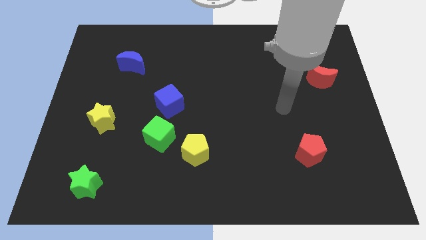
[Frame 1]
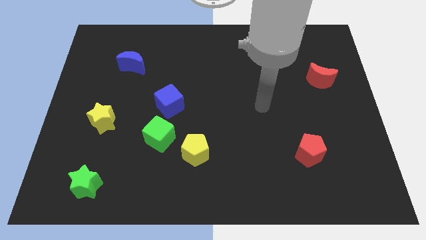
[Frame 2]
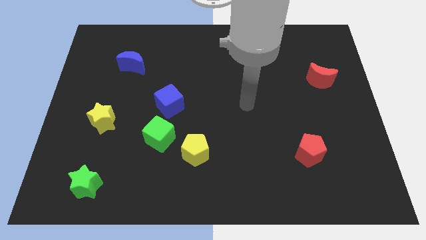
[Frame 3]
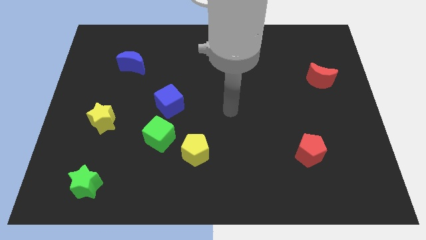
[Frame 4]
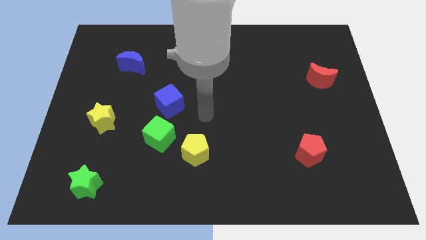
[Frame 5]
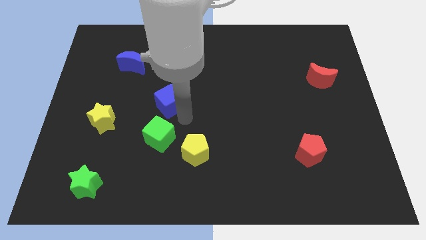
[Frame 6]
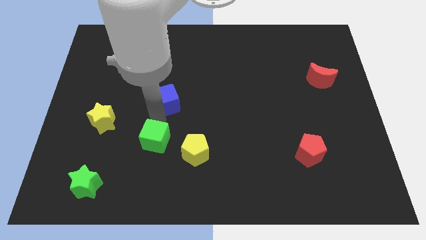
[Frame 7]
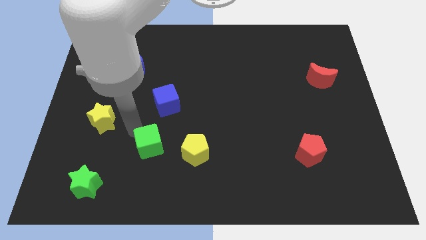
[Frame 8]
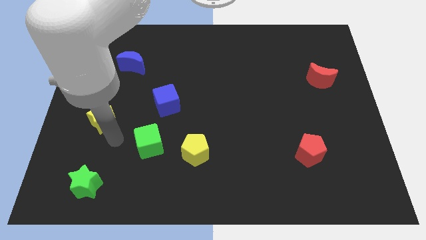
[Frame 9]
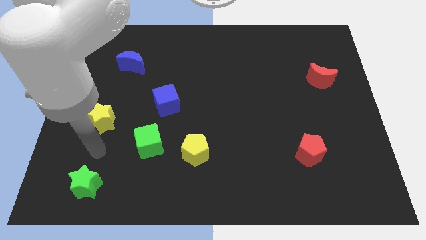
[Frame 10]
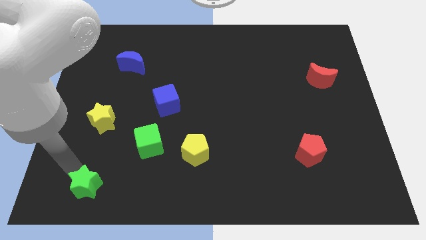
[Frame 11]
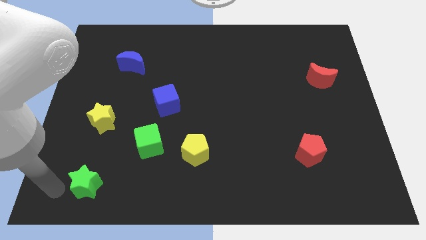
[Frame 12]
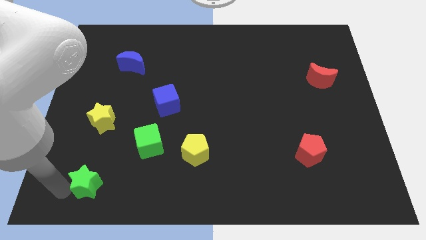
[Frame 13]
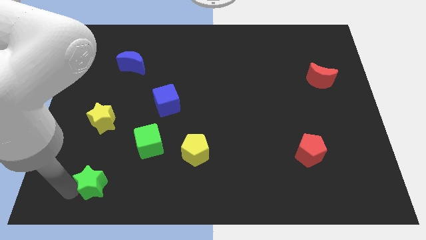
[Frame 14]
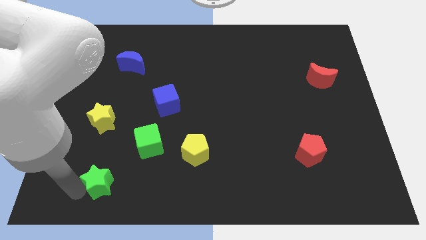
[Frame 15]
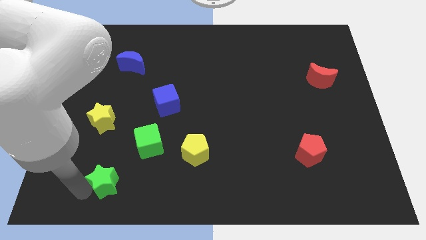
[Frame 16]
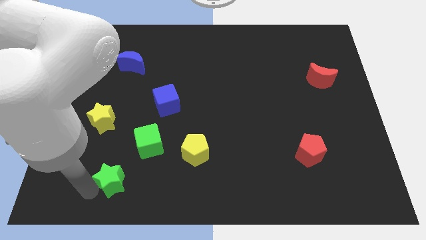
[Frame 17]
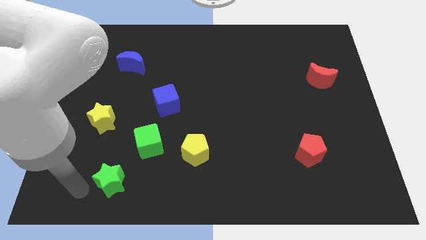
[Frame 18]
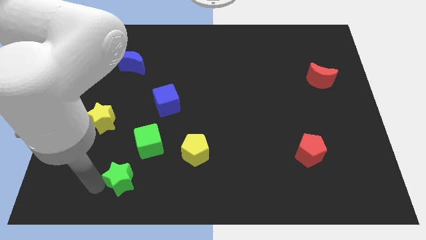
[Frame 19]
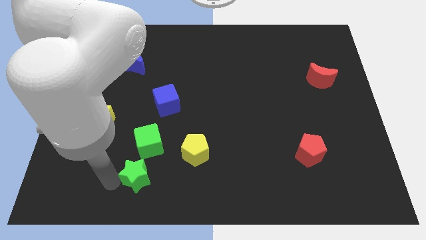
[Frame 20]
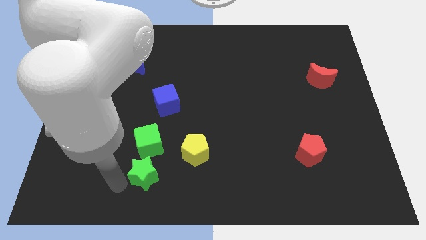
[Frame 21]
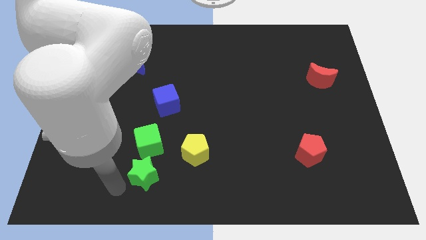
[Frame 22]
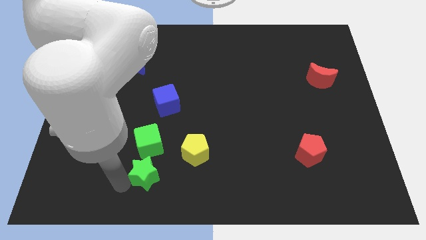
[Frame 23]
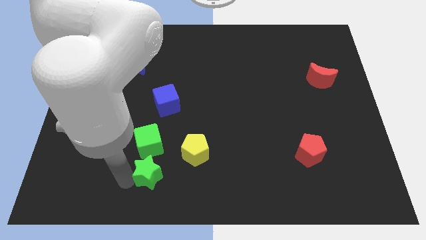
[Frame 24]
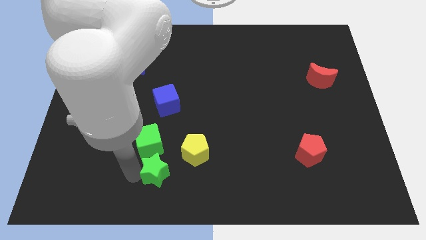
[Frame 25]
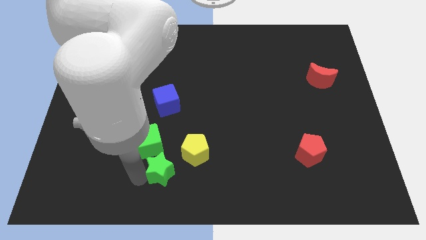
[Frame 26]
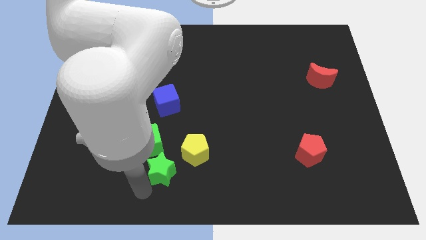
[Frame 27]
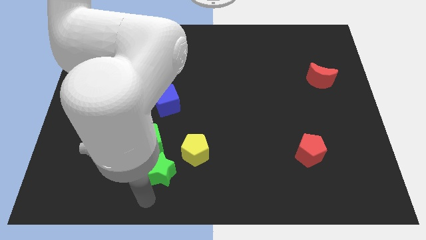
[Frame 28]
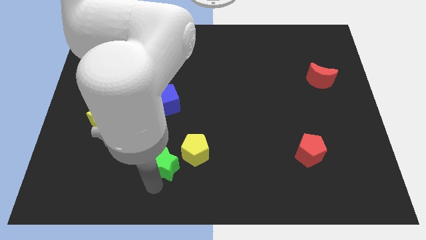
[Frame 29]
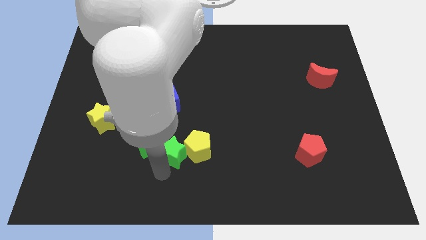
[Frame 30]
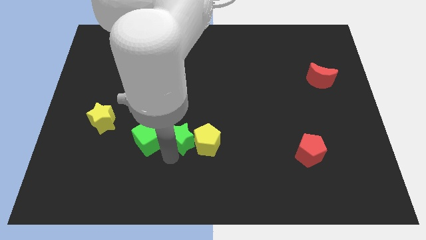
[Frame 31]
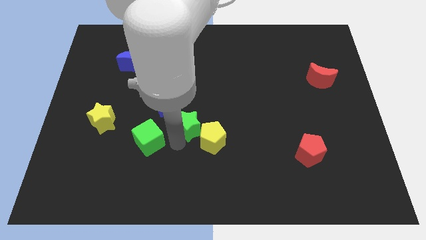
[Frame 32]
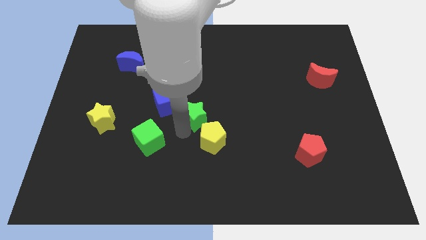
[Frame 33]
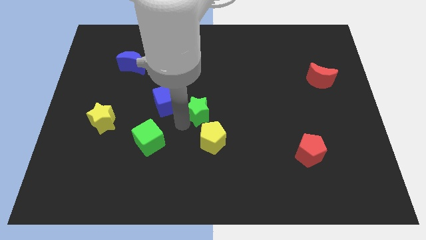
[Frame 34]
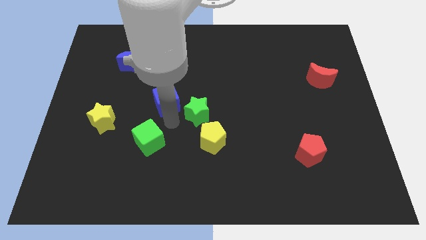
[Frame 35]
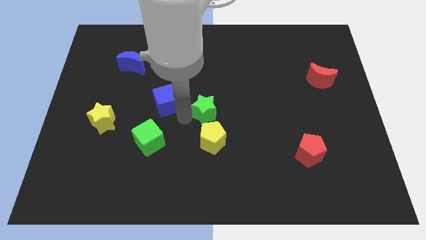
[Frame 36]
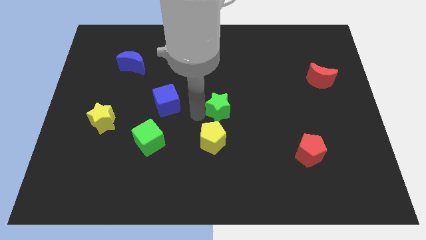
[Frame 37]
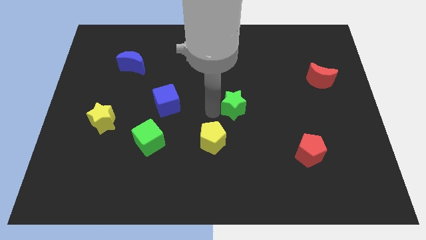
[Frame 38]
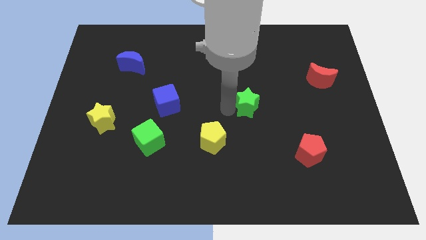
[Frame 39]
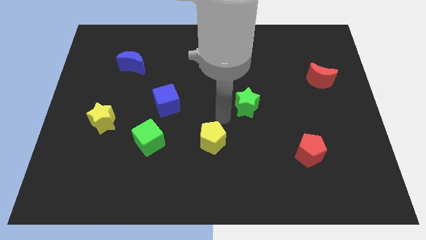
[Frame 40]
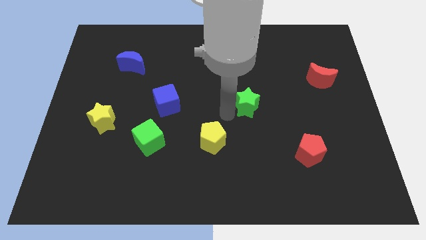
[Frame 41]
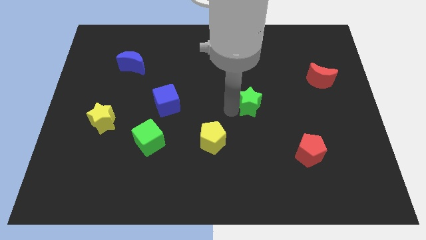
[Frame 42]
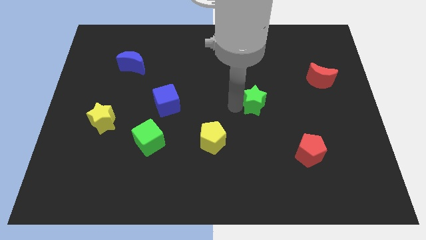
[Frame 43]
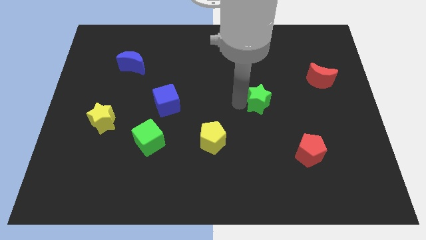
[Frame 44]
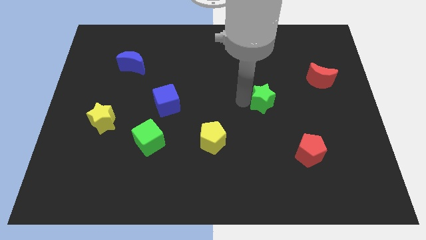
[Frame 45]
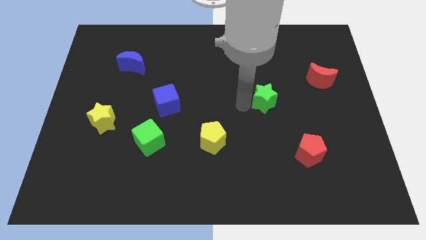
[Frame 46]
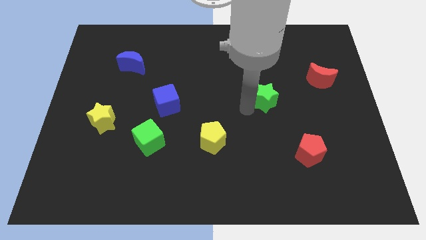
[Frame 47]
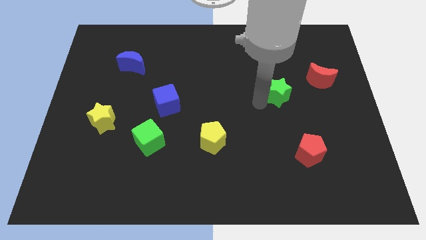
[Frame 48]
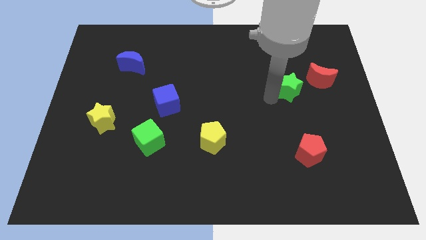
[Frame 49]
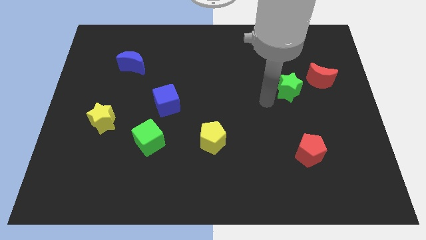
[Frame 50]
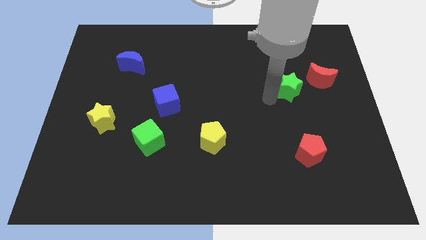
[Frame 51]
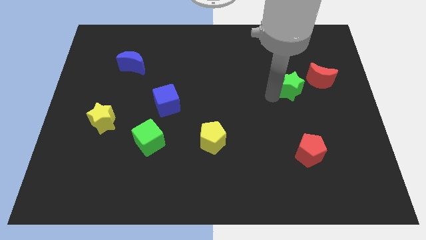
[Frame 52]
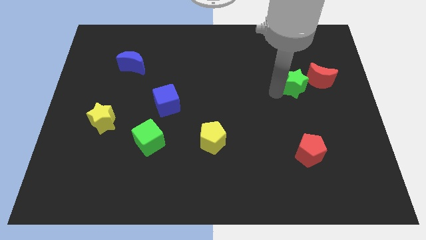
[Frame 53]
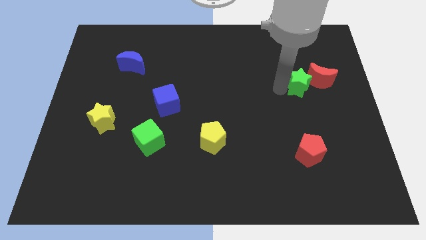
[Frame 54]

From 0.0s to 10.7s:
slide the green star next to the red moon

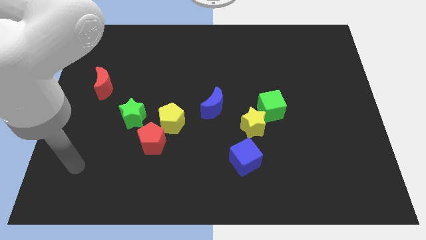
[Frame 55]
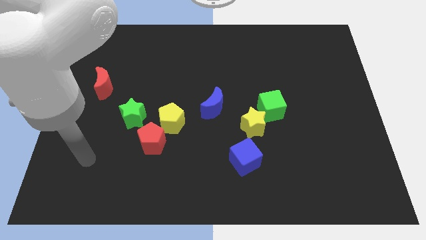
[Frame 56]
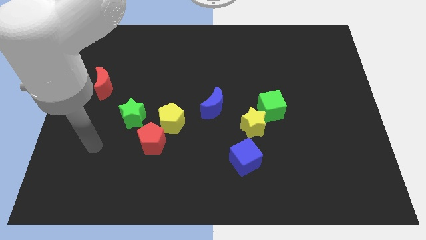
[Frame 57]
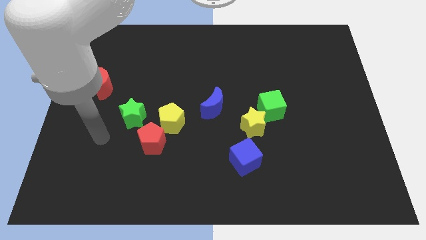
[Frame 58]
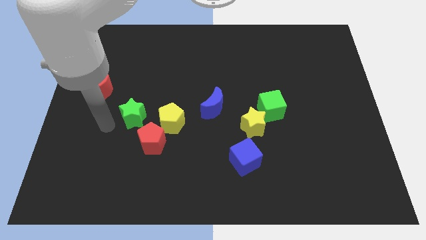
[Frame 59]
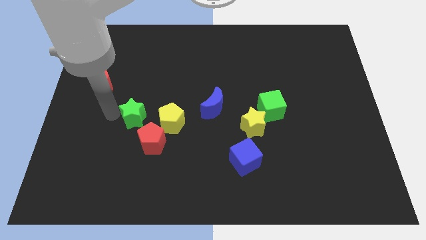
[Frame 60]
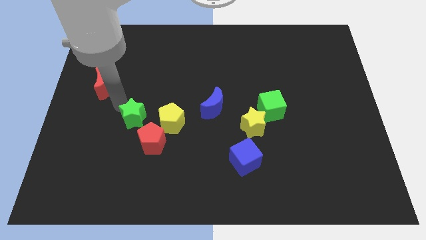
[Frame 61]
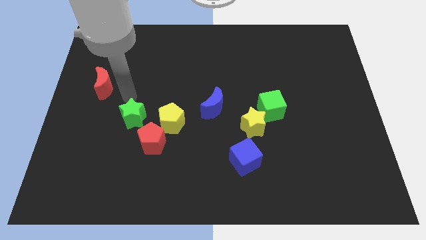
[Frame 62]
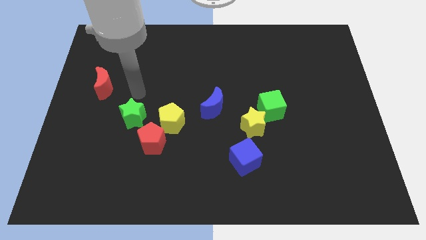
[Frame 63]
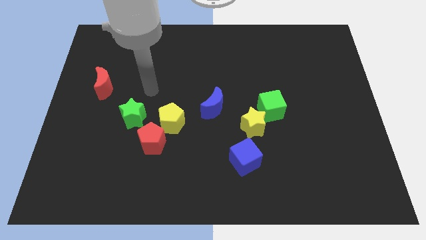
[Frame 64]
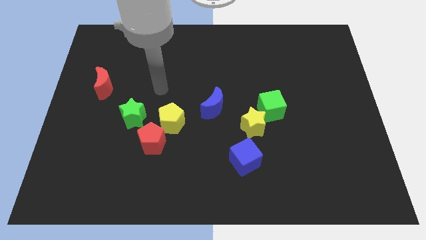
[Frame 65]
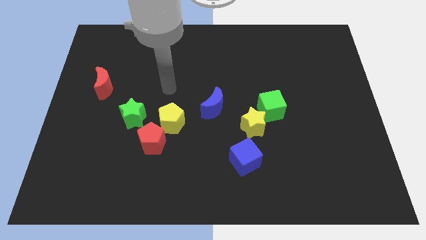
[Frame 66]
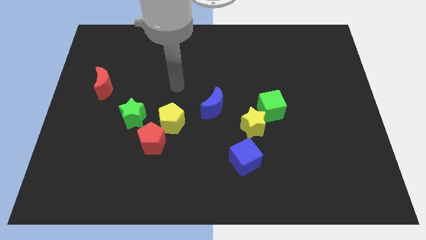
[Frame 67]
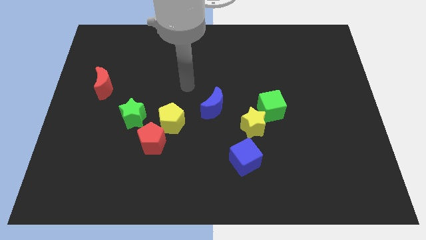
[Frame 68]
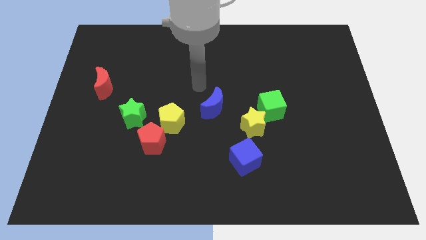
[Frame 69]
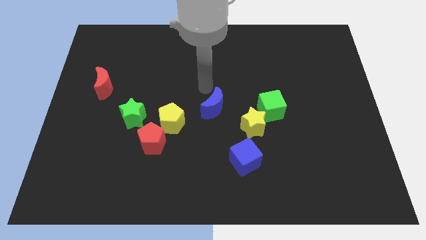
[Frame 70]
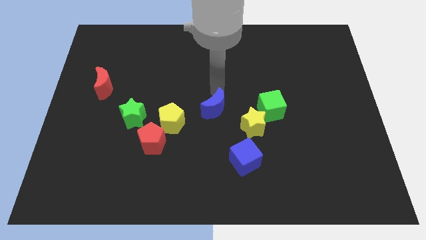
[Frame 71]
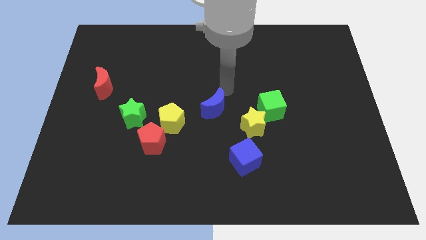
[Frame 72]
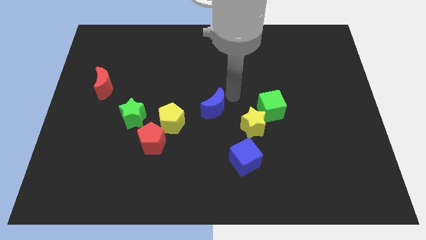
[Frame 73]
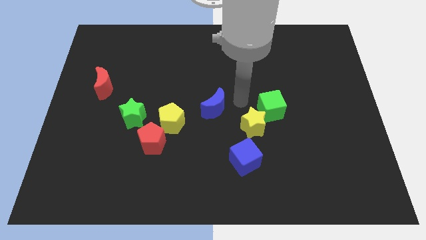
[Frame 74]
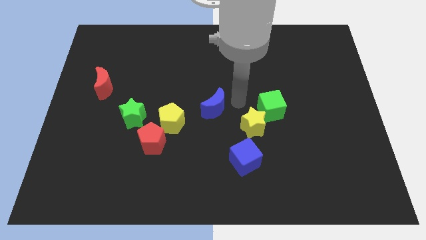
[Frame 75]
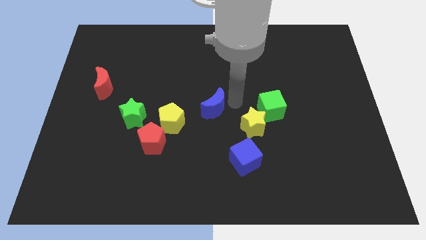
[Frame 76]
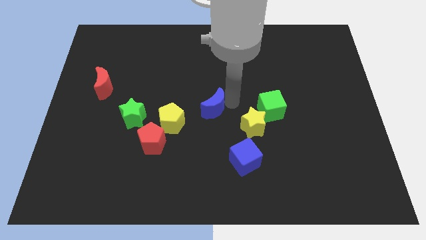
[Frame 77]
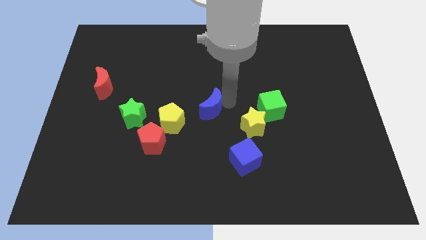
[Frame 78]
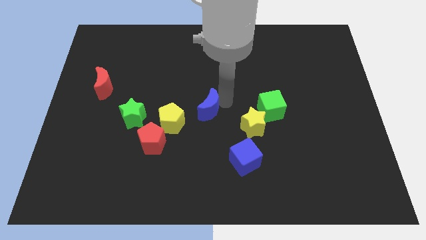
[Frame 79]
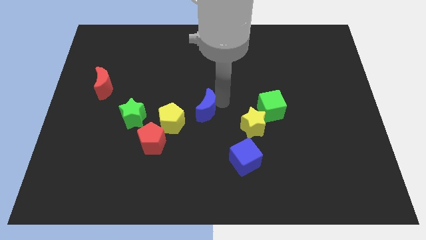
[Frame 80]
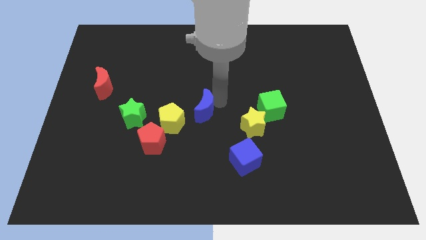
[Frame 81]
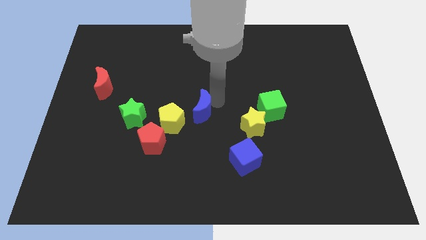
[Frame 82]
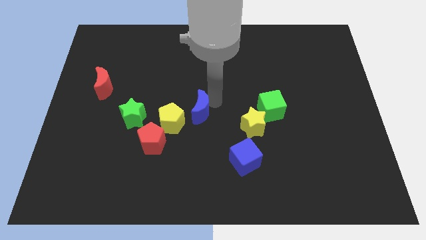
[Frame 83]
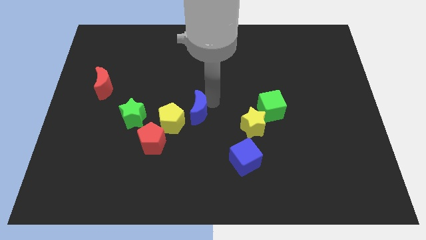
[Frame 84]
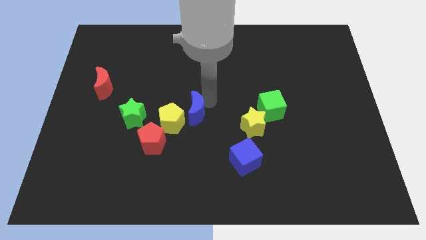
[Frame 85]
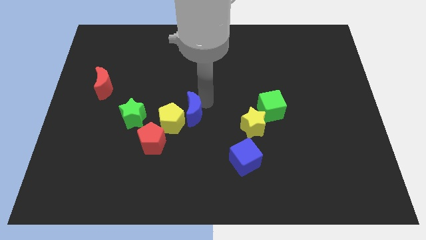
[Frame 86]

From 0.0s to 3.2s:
put the blue moon towards the yellow pentagon
